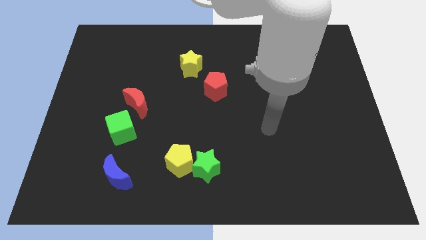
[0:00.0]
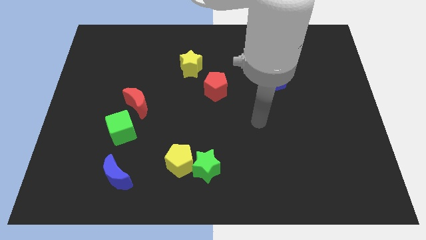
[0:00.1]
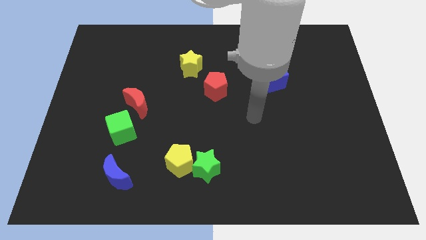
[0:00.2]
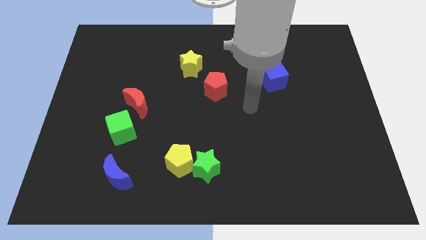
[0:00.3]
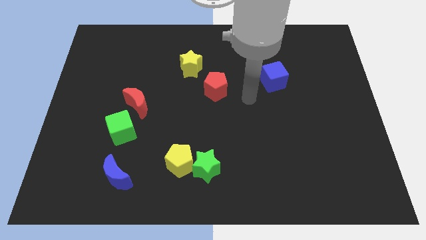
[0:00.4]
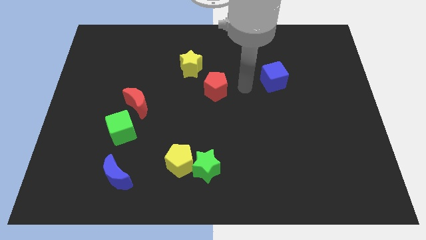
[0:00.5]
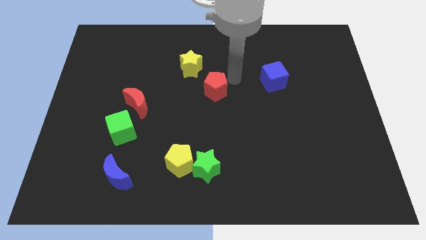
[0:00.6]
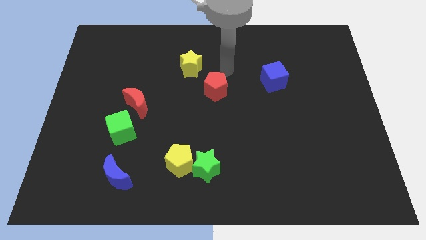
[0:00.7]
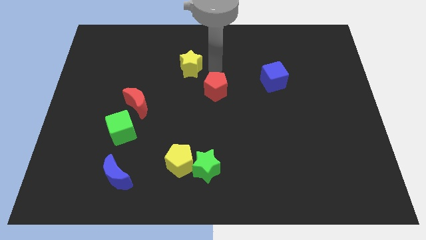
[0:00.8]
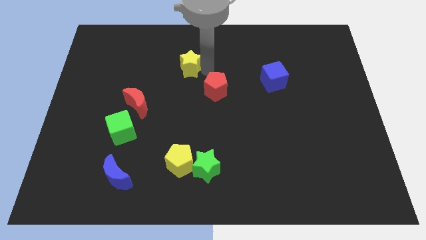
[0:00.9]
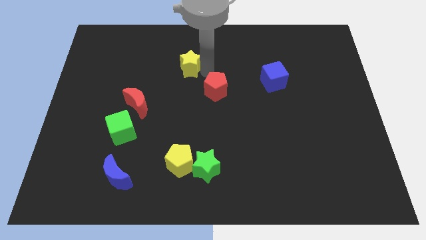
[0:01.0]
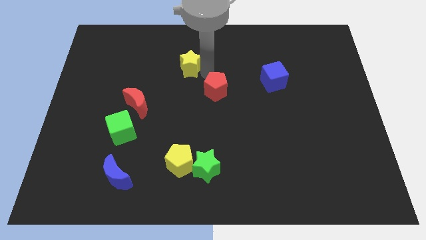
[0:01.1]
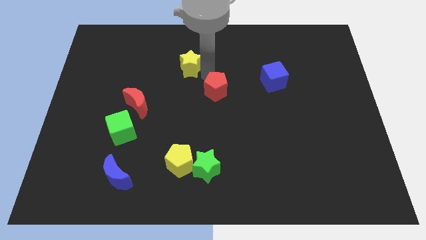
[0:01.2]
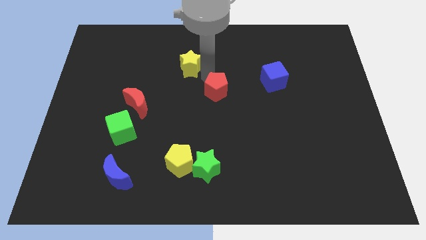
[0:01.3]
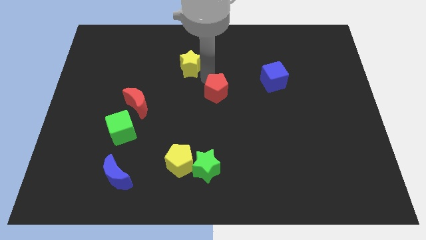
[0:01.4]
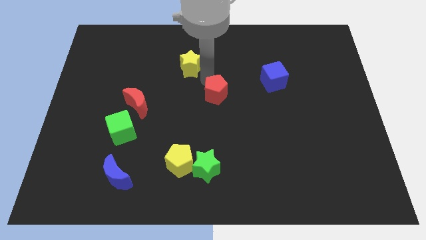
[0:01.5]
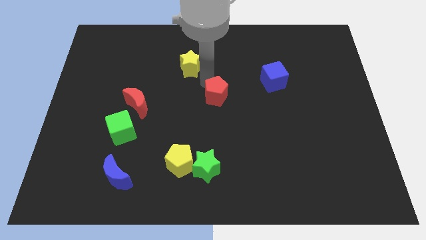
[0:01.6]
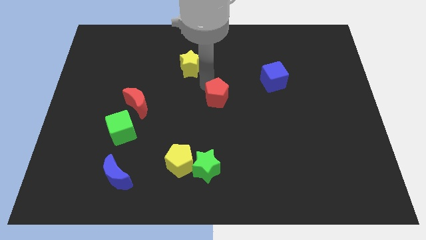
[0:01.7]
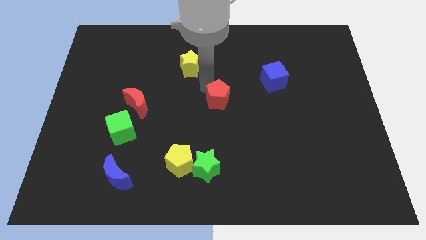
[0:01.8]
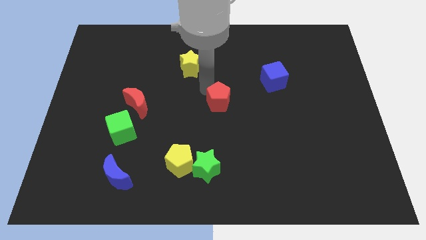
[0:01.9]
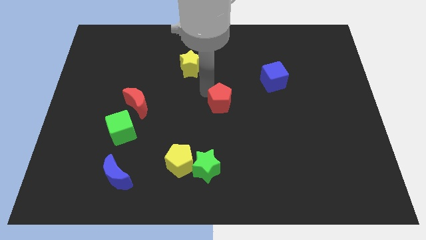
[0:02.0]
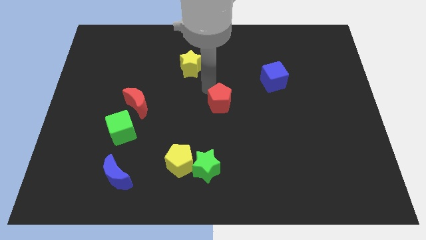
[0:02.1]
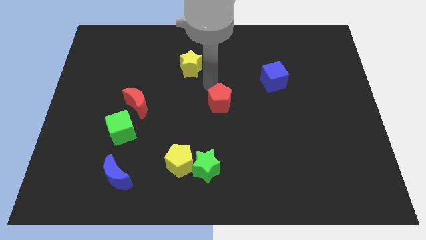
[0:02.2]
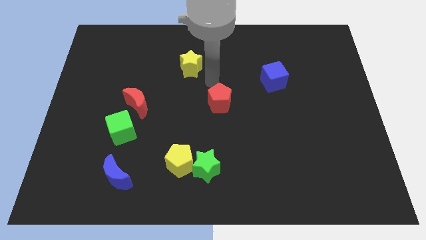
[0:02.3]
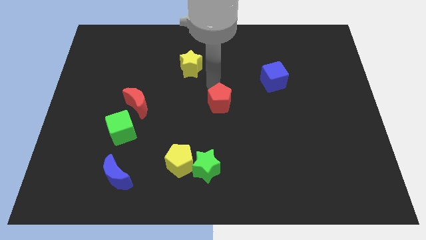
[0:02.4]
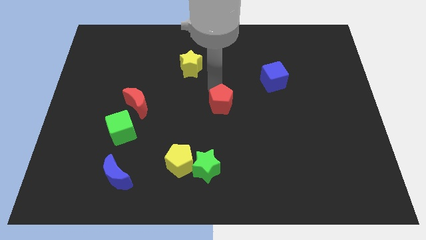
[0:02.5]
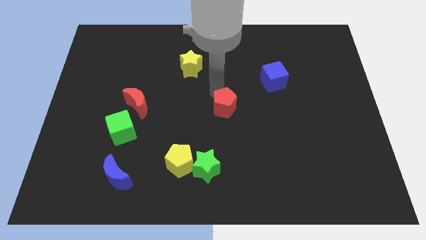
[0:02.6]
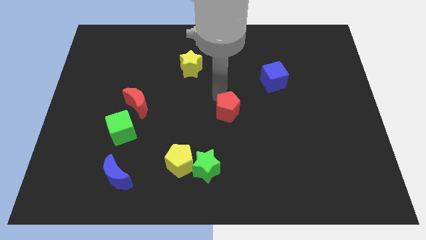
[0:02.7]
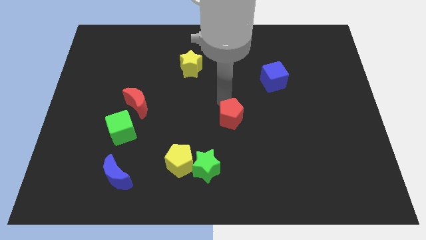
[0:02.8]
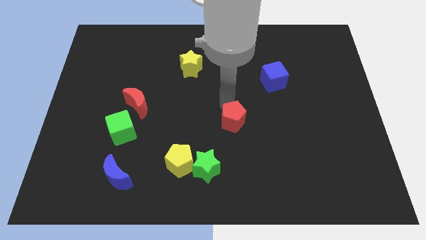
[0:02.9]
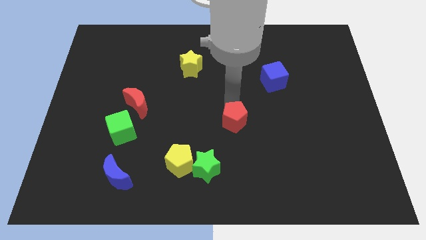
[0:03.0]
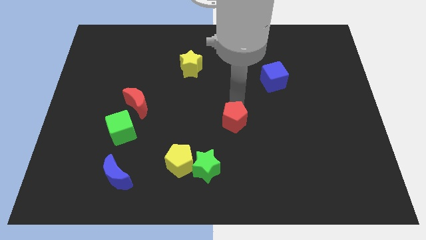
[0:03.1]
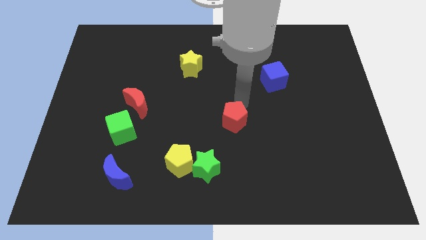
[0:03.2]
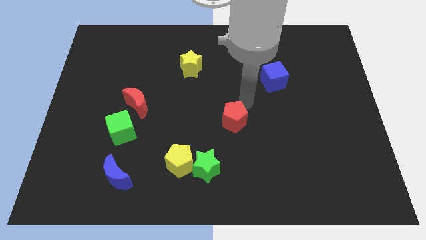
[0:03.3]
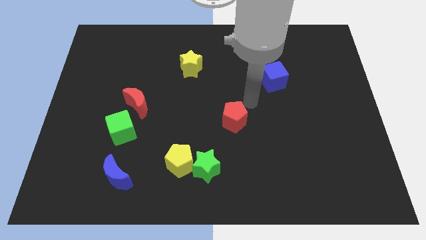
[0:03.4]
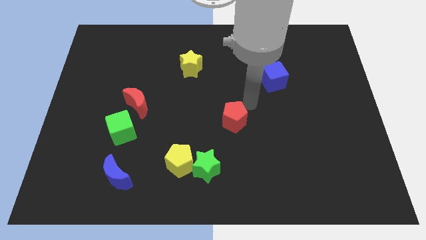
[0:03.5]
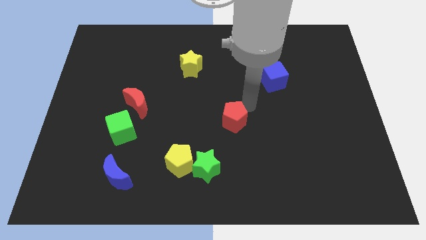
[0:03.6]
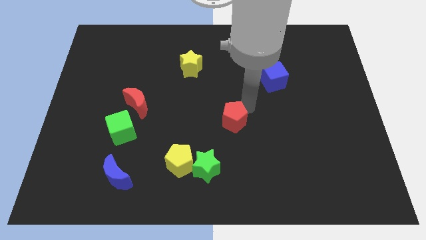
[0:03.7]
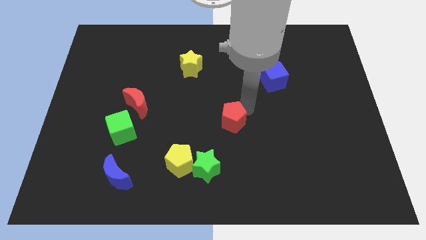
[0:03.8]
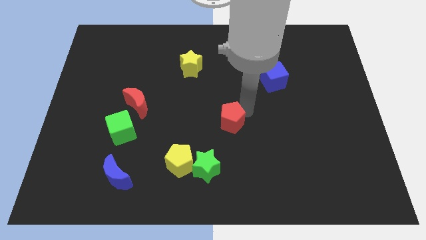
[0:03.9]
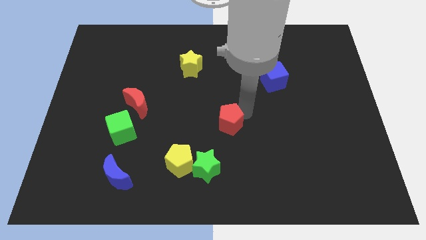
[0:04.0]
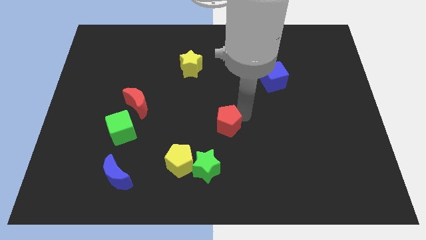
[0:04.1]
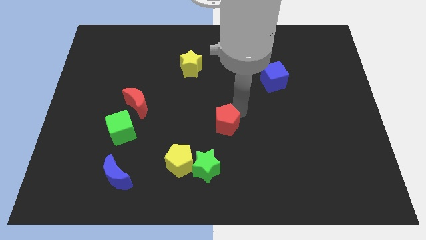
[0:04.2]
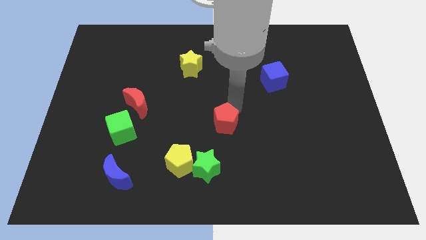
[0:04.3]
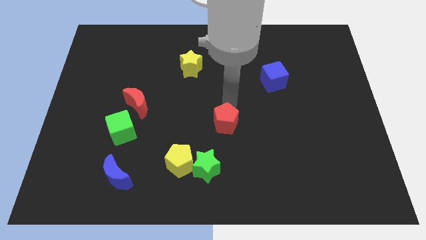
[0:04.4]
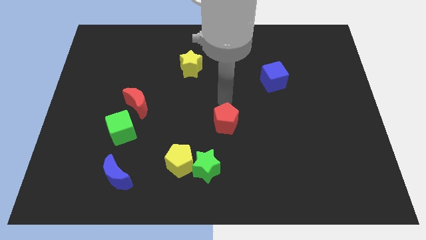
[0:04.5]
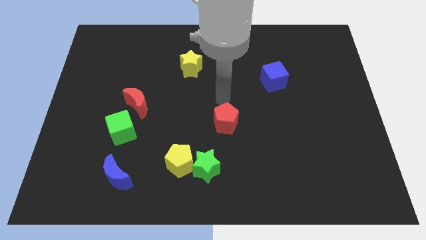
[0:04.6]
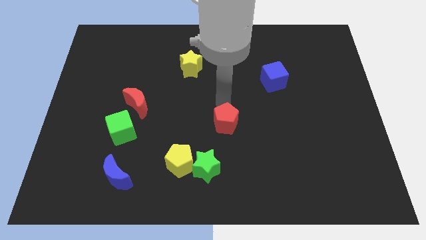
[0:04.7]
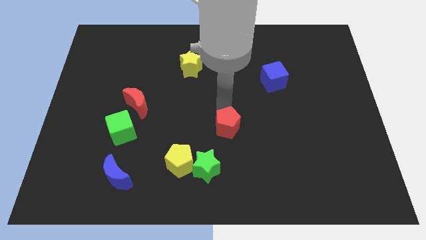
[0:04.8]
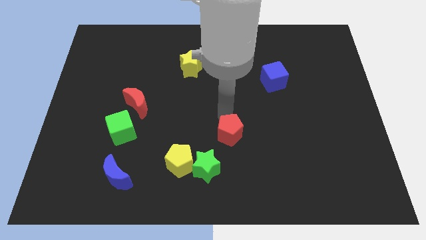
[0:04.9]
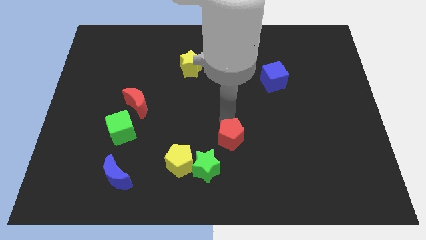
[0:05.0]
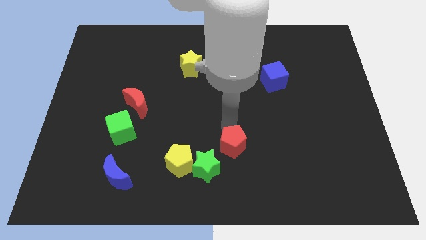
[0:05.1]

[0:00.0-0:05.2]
slide the red pentagon right of the yellow pentagon

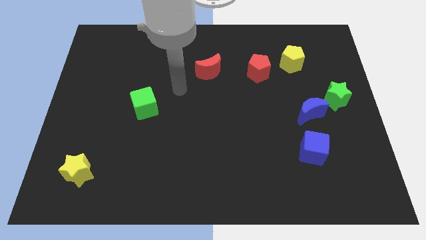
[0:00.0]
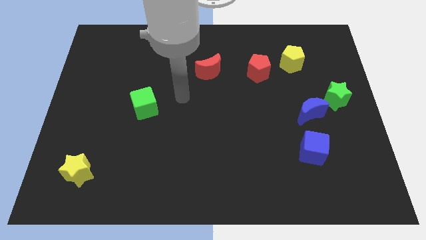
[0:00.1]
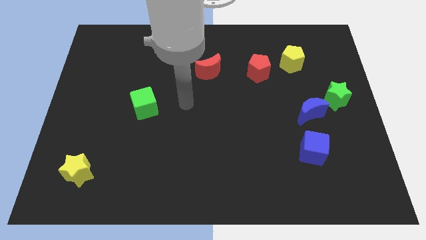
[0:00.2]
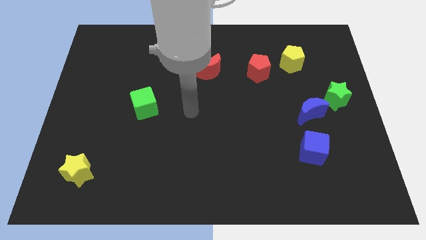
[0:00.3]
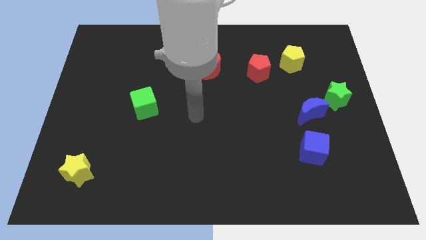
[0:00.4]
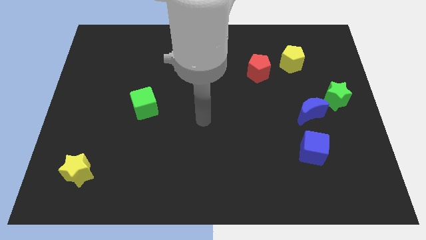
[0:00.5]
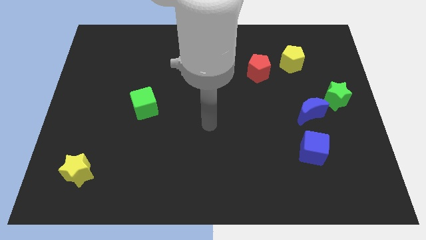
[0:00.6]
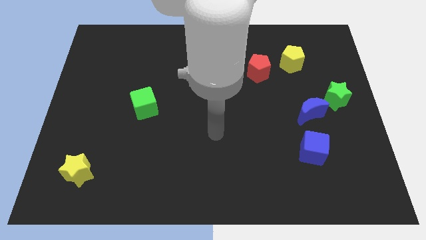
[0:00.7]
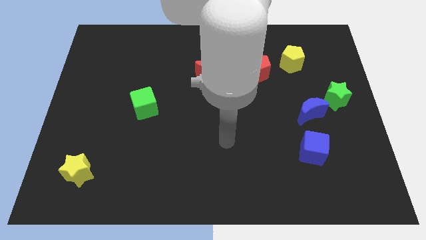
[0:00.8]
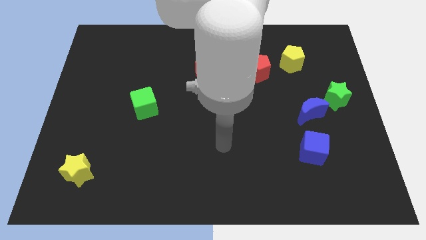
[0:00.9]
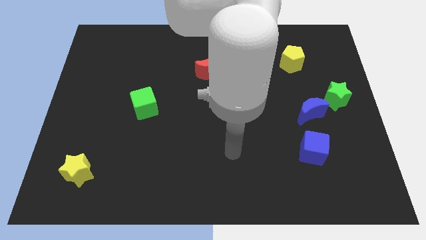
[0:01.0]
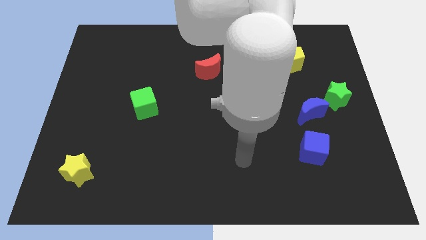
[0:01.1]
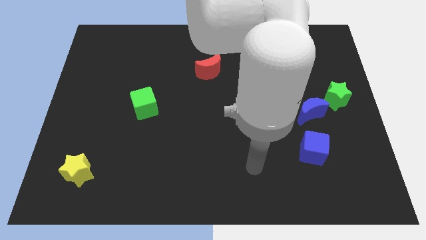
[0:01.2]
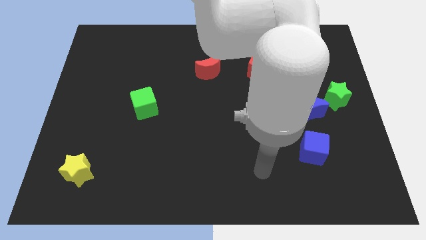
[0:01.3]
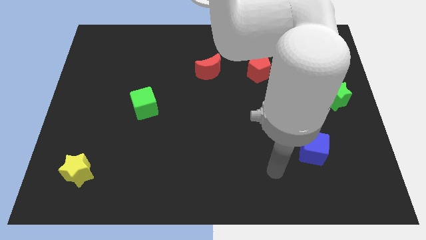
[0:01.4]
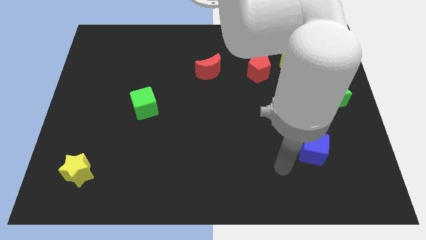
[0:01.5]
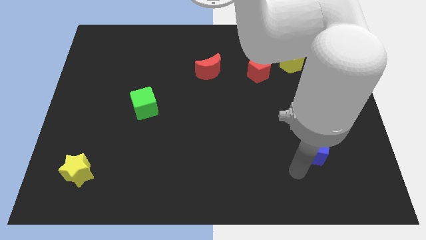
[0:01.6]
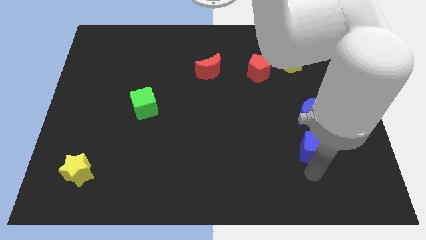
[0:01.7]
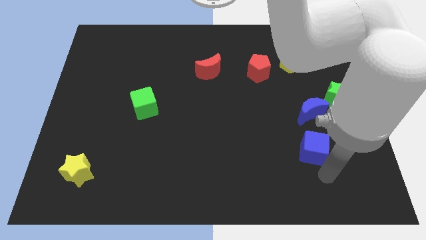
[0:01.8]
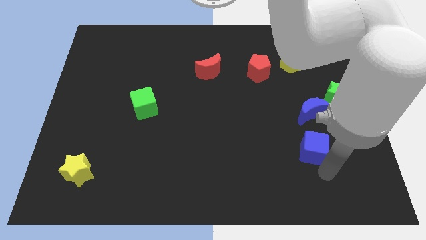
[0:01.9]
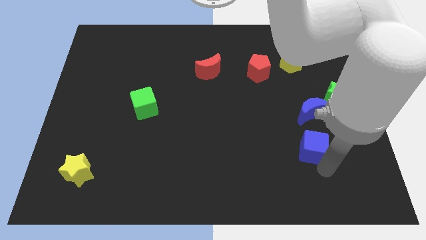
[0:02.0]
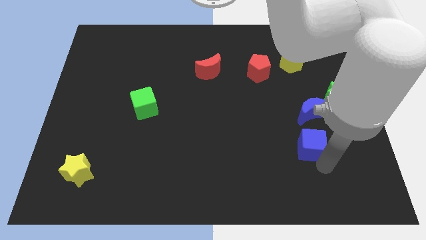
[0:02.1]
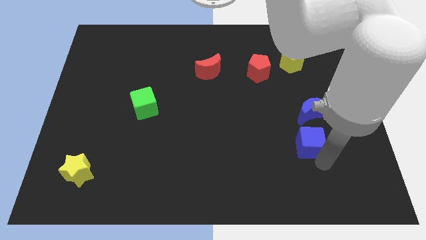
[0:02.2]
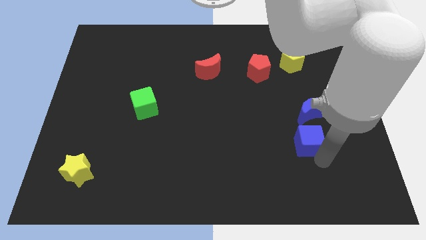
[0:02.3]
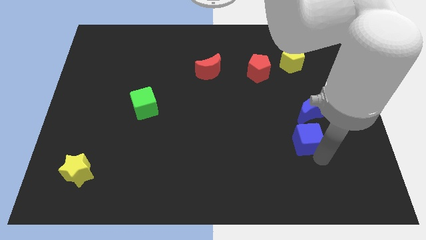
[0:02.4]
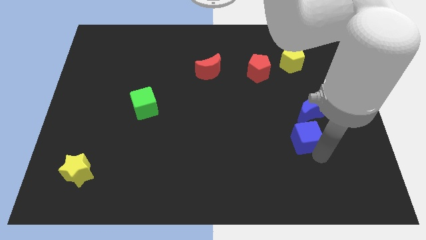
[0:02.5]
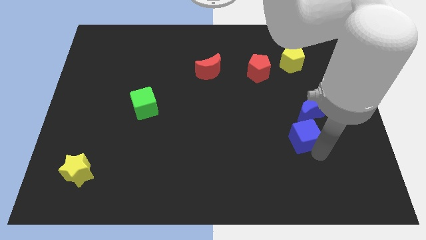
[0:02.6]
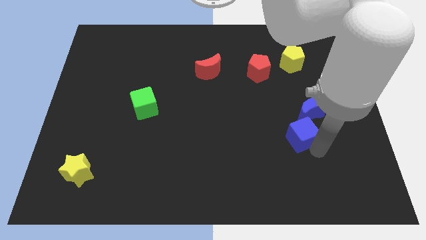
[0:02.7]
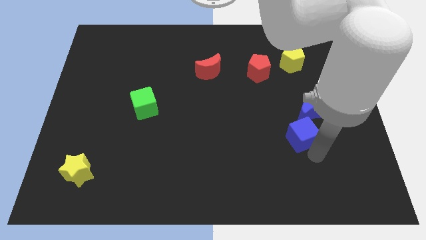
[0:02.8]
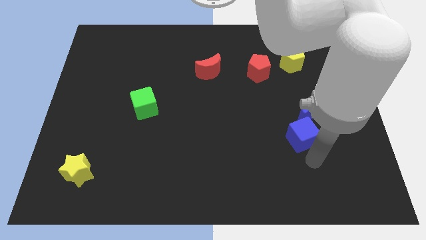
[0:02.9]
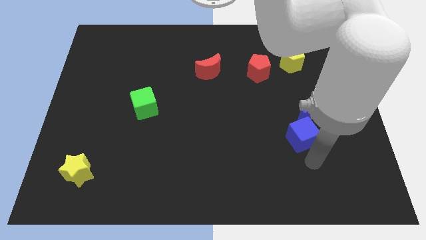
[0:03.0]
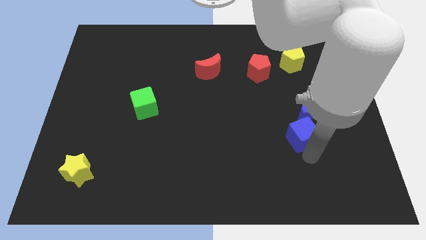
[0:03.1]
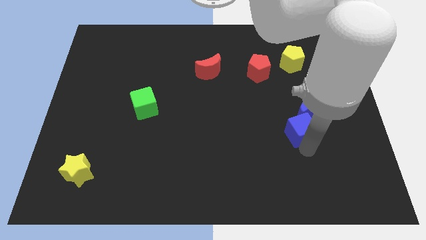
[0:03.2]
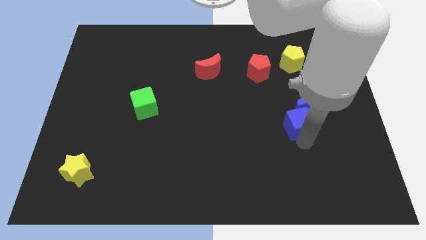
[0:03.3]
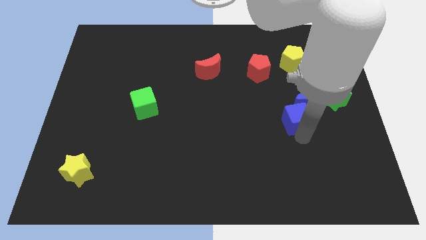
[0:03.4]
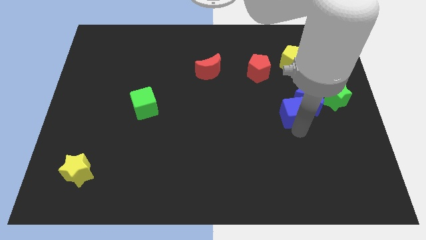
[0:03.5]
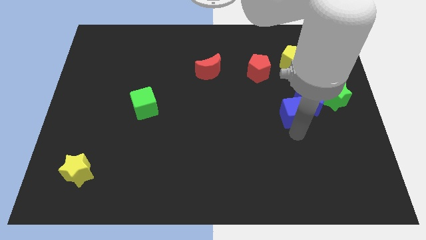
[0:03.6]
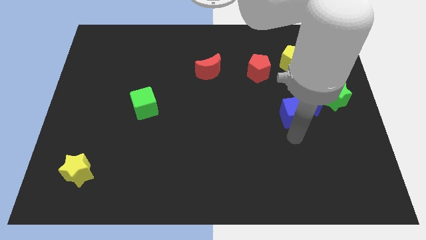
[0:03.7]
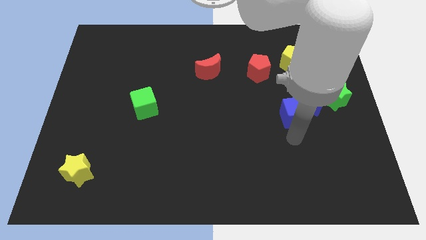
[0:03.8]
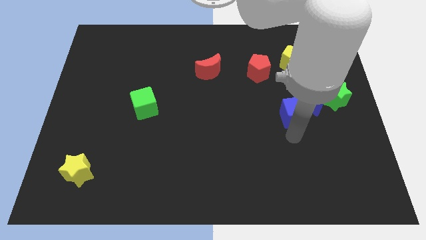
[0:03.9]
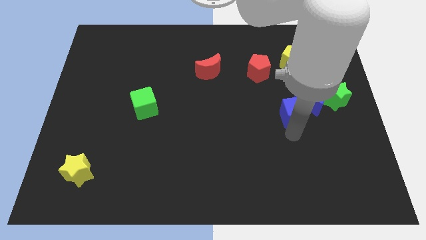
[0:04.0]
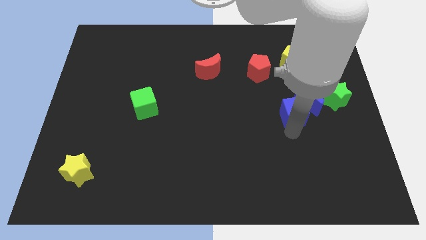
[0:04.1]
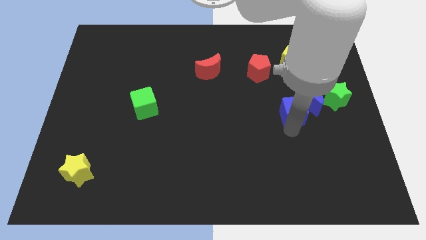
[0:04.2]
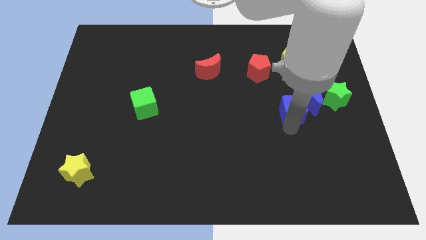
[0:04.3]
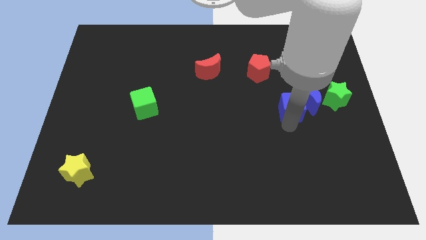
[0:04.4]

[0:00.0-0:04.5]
slide the blue cube below the yellow pentagon
